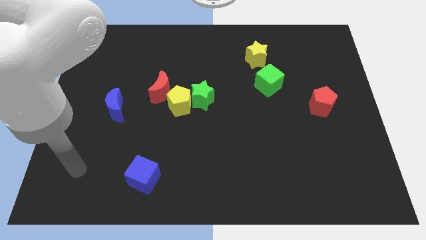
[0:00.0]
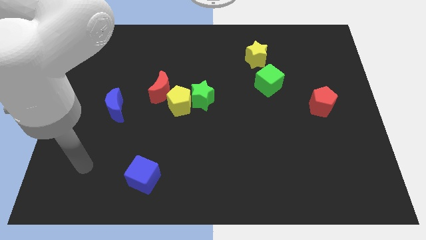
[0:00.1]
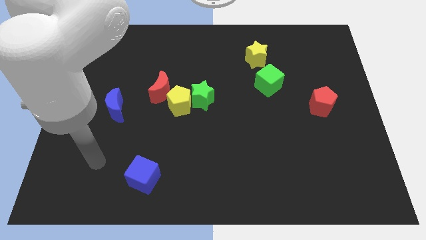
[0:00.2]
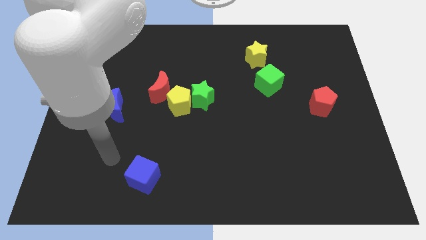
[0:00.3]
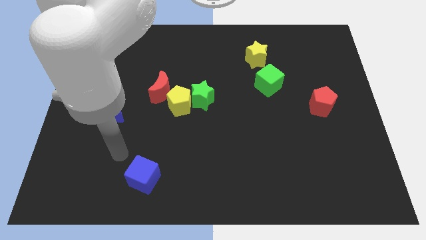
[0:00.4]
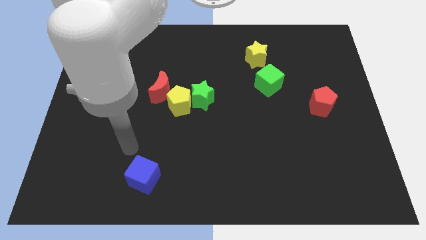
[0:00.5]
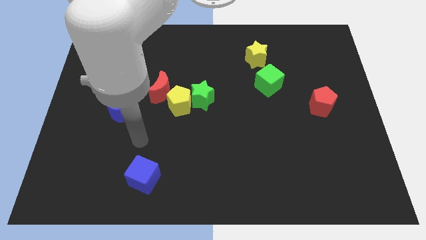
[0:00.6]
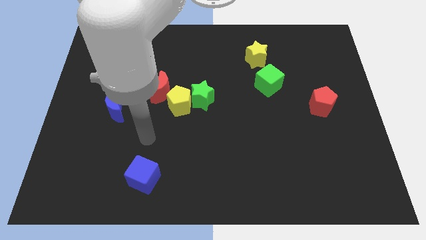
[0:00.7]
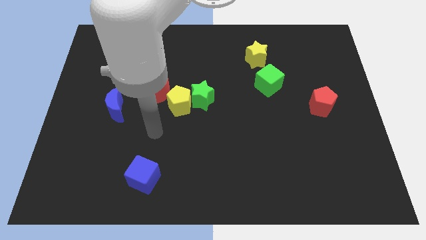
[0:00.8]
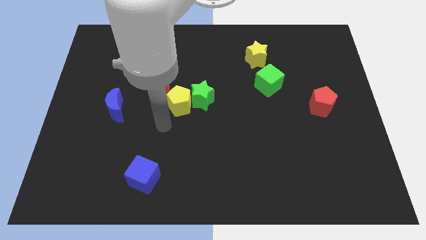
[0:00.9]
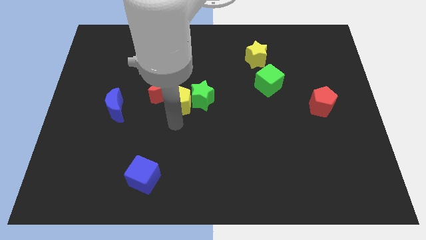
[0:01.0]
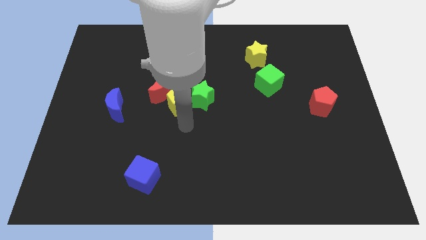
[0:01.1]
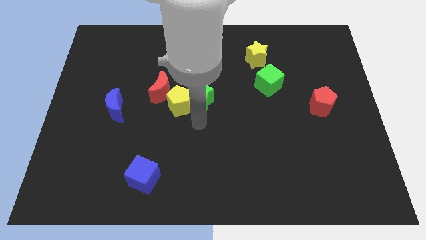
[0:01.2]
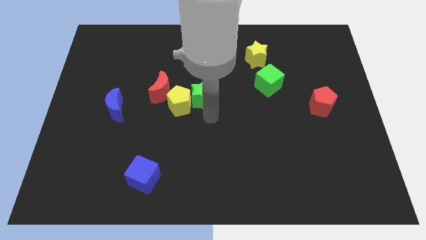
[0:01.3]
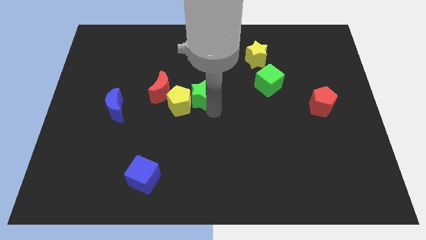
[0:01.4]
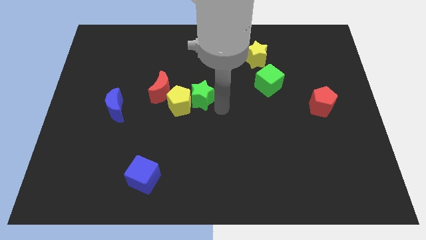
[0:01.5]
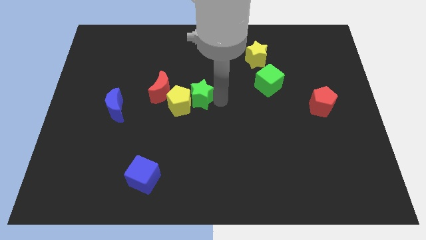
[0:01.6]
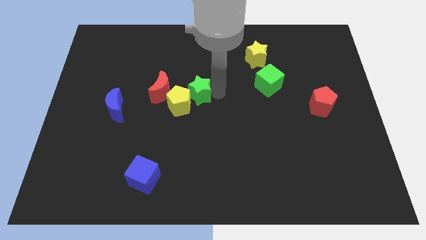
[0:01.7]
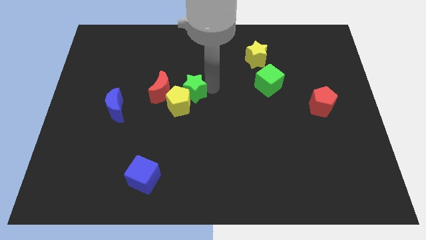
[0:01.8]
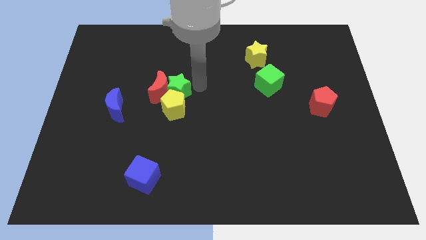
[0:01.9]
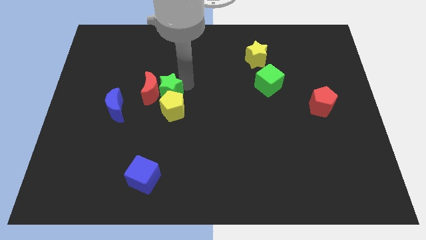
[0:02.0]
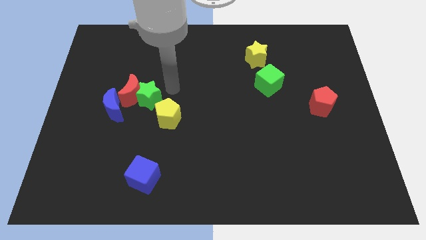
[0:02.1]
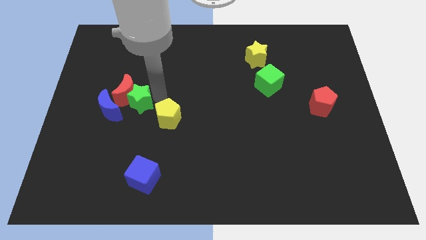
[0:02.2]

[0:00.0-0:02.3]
pull the yellow pentagon apart from the green star and red moon

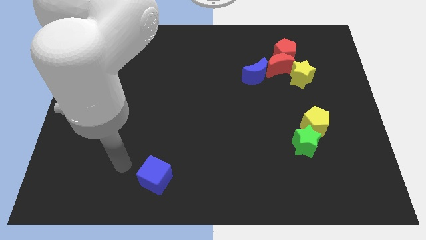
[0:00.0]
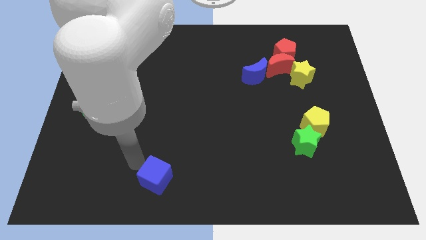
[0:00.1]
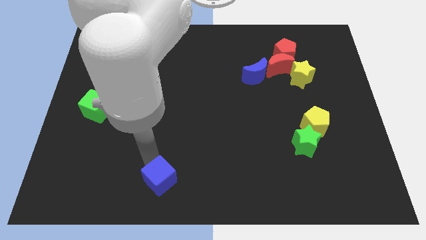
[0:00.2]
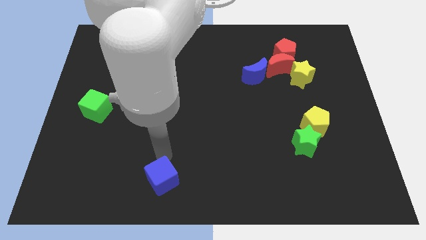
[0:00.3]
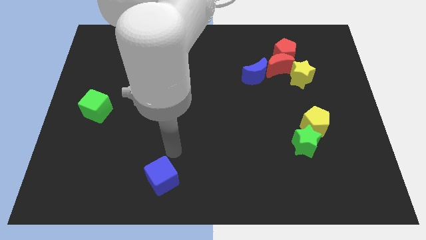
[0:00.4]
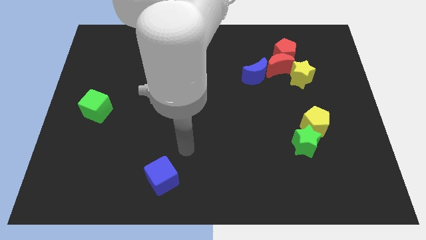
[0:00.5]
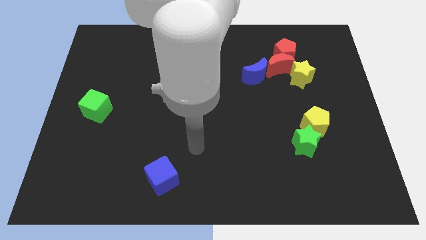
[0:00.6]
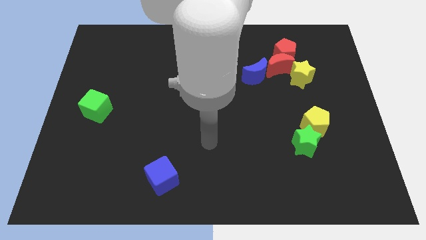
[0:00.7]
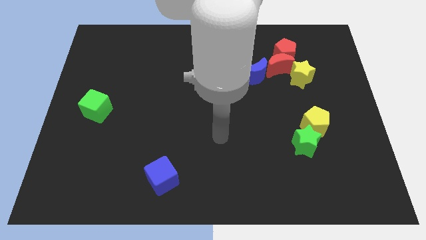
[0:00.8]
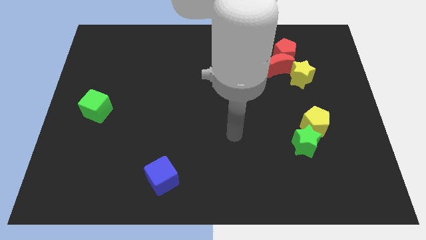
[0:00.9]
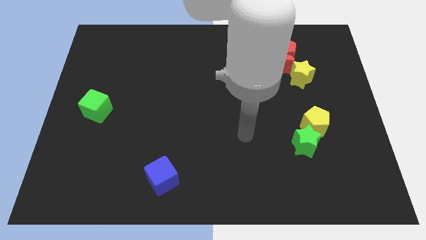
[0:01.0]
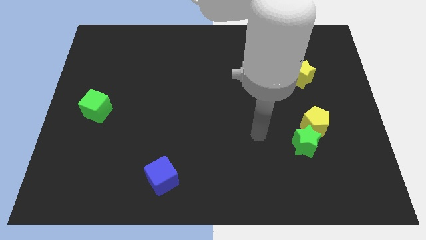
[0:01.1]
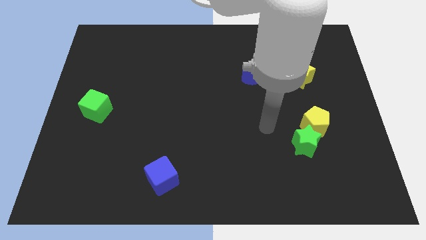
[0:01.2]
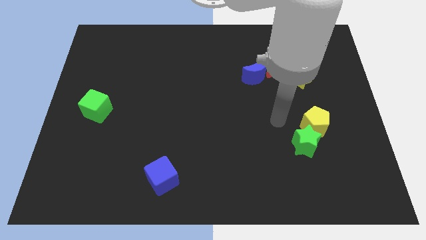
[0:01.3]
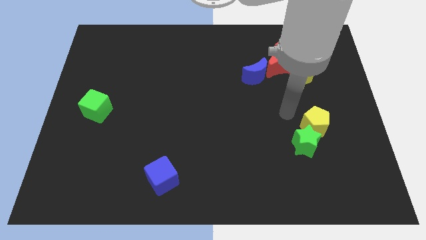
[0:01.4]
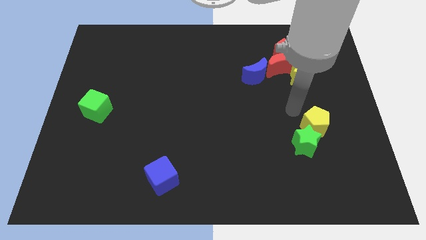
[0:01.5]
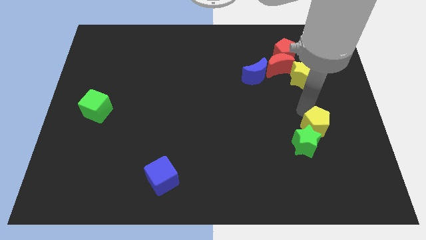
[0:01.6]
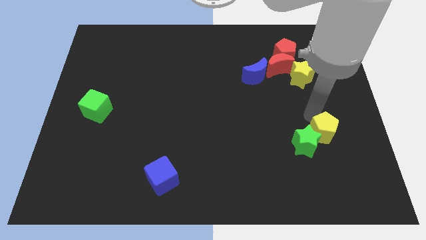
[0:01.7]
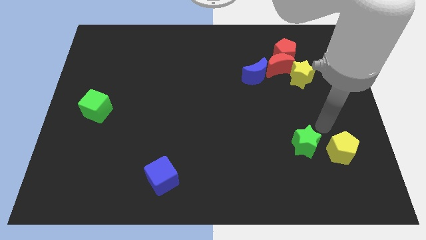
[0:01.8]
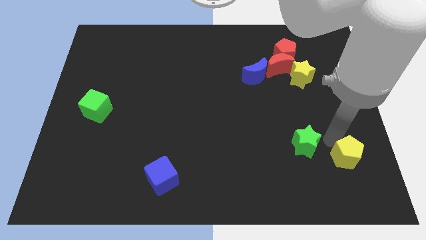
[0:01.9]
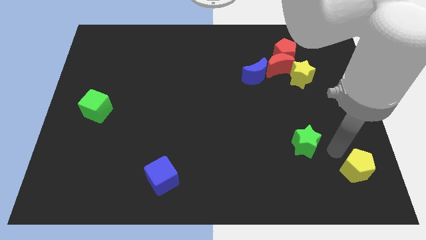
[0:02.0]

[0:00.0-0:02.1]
move the green star away from the yellow pentagon

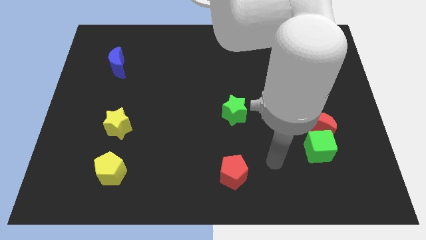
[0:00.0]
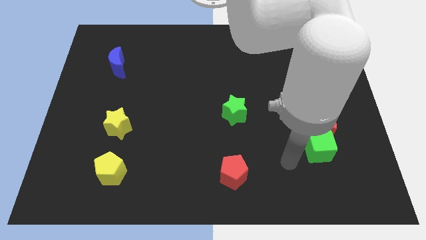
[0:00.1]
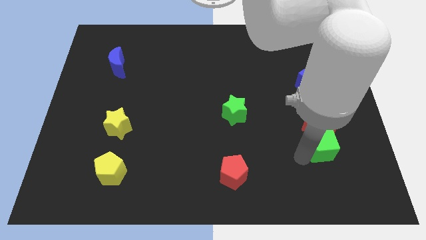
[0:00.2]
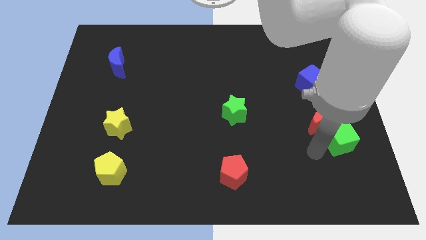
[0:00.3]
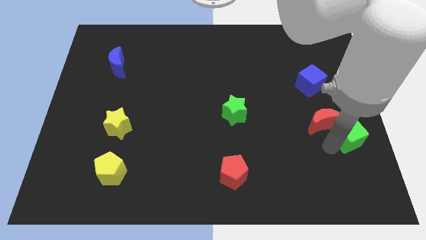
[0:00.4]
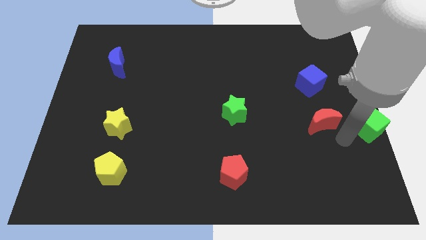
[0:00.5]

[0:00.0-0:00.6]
pull the red moon apart from the green cube

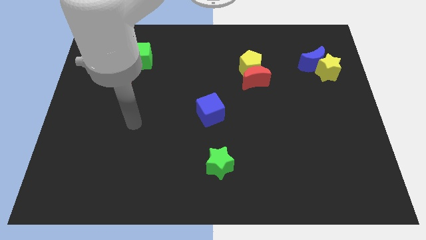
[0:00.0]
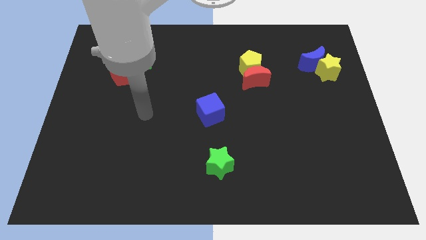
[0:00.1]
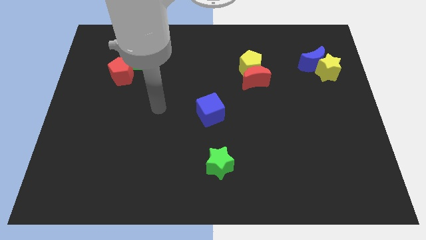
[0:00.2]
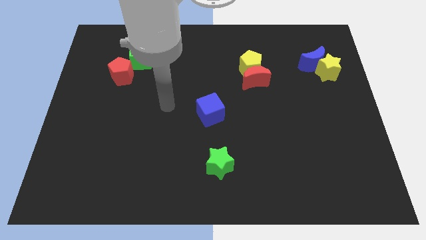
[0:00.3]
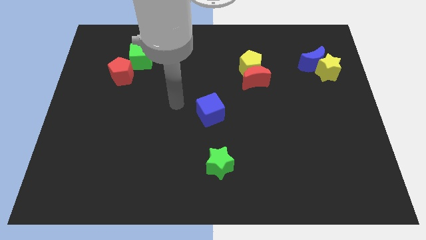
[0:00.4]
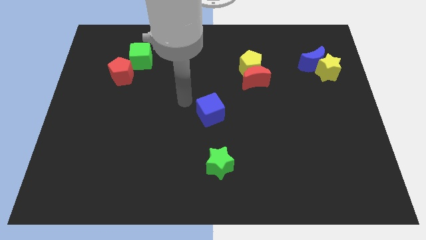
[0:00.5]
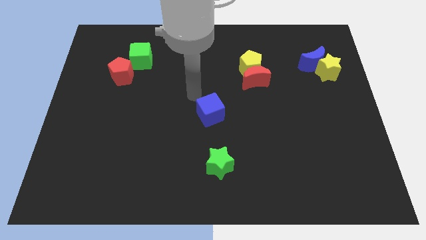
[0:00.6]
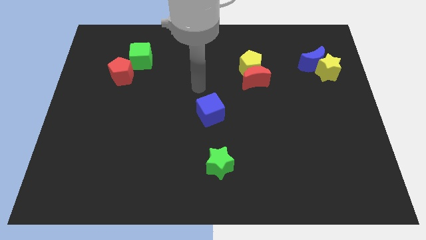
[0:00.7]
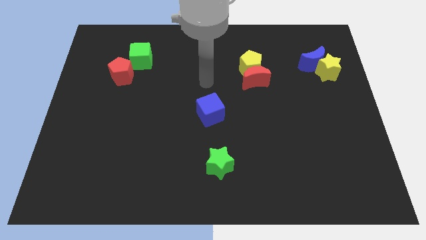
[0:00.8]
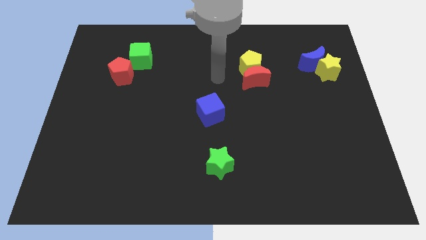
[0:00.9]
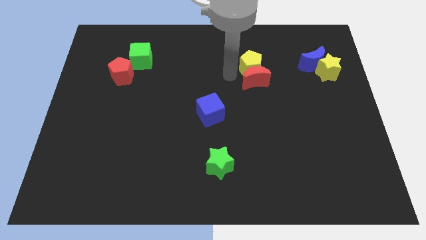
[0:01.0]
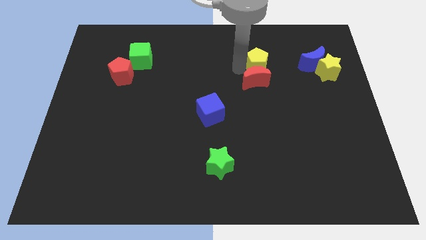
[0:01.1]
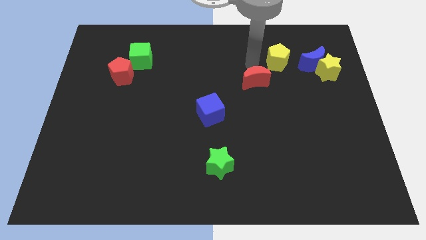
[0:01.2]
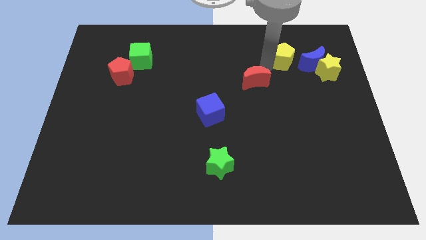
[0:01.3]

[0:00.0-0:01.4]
separate the red moon from the yellow pentagon

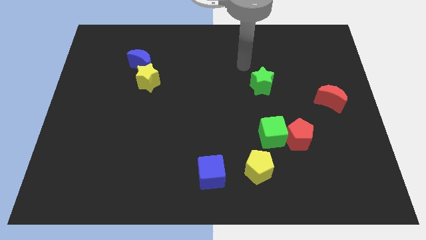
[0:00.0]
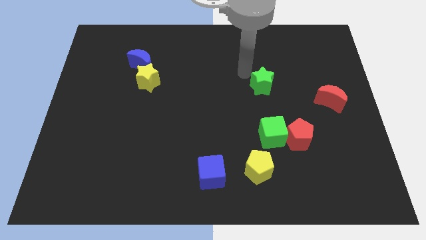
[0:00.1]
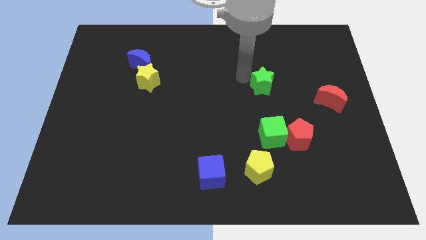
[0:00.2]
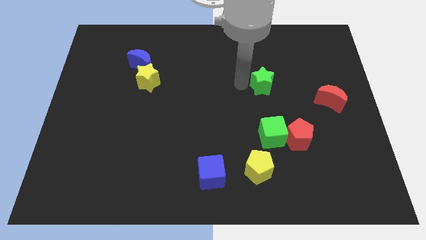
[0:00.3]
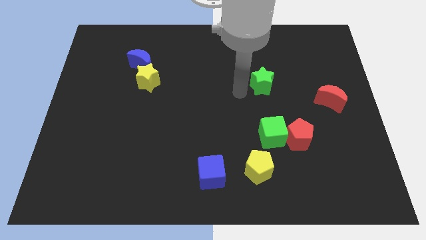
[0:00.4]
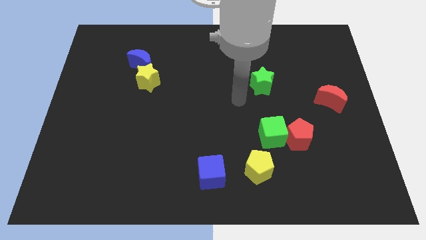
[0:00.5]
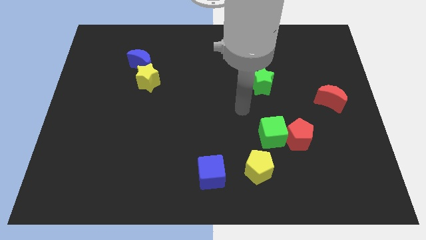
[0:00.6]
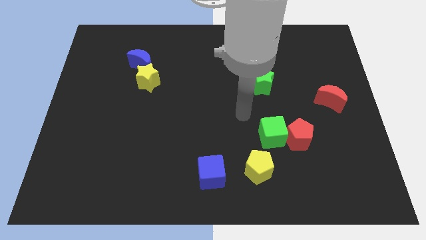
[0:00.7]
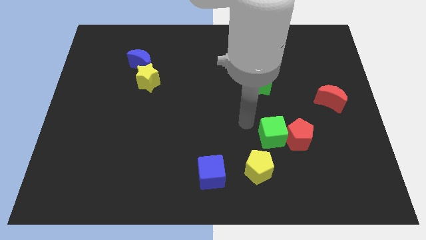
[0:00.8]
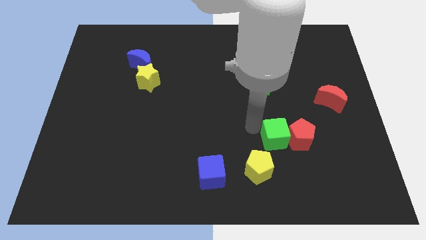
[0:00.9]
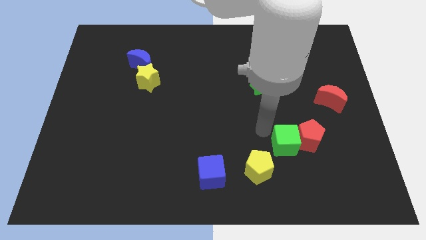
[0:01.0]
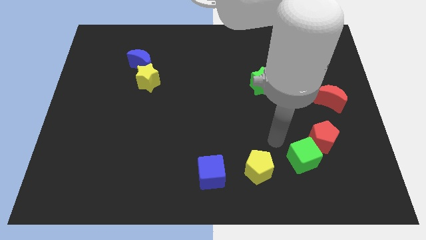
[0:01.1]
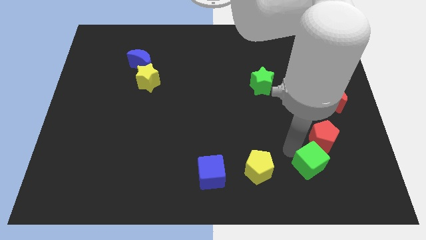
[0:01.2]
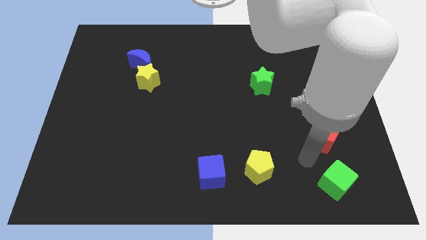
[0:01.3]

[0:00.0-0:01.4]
separate the red pentagon from the green cube

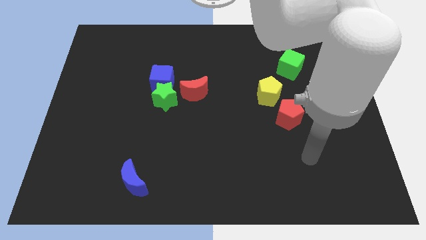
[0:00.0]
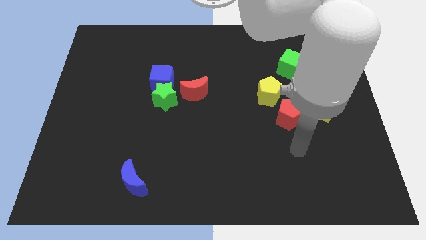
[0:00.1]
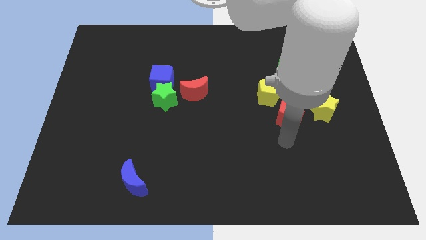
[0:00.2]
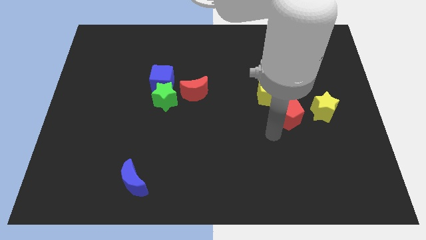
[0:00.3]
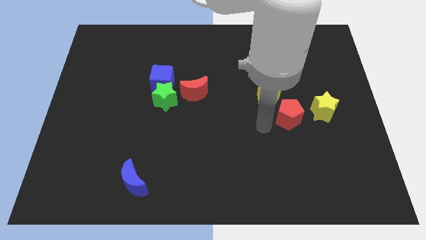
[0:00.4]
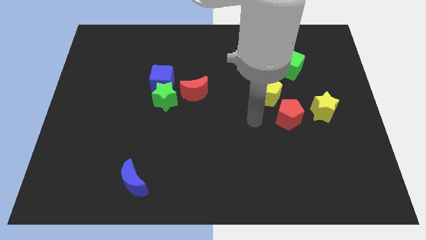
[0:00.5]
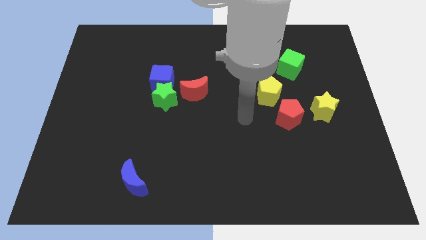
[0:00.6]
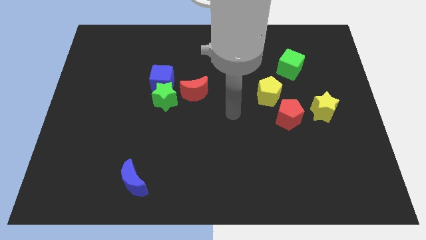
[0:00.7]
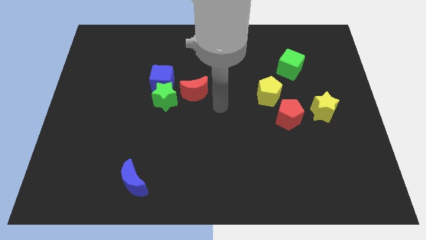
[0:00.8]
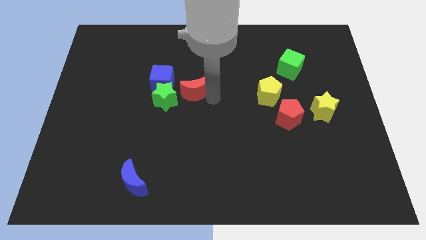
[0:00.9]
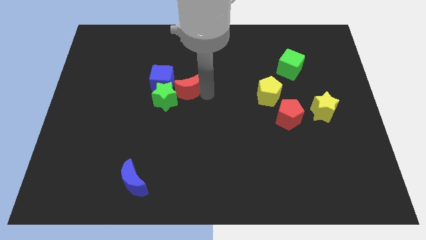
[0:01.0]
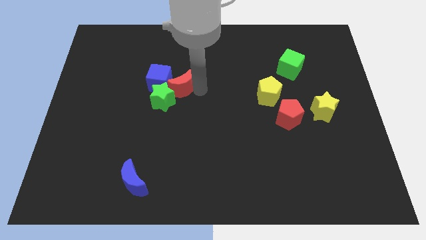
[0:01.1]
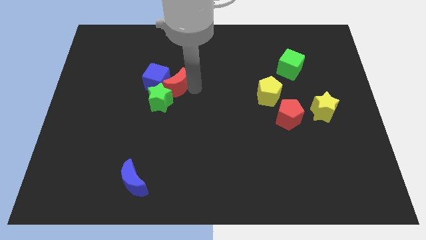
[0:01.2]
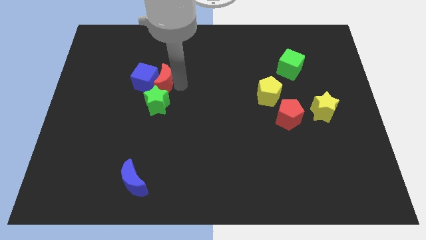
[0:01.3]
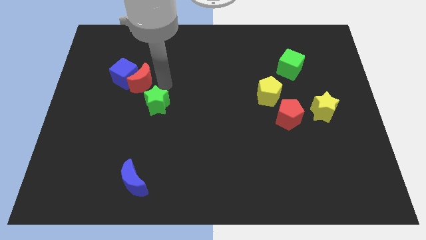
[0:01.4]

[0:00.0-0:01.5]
separate the green star from the blue cube and red moon
